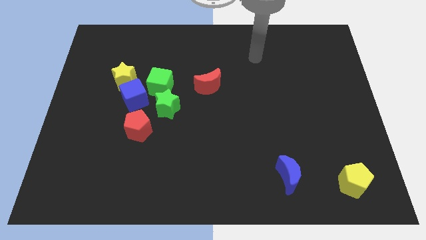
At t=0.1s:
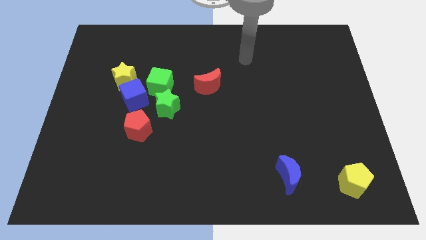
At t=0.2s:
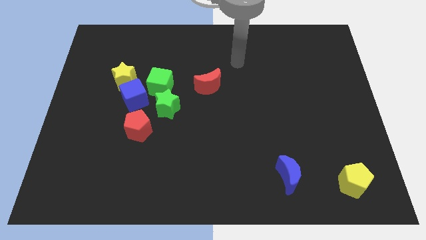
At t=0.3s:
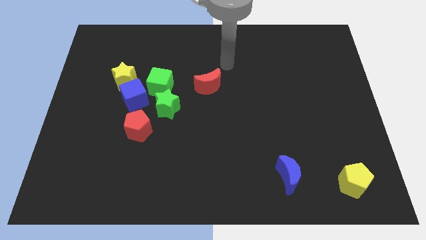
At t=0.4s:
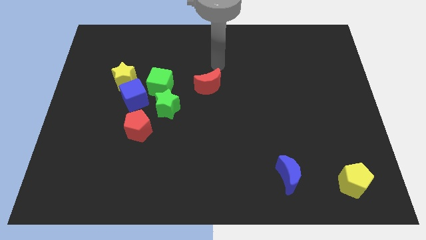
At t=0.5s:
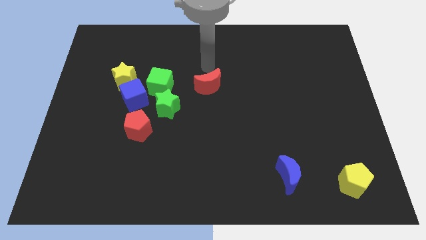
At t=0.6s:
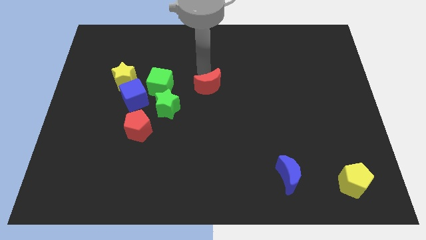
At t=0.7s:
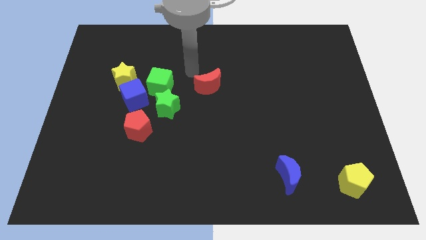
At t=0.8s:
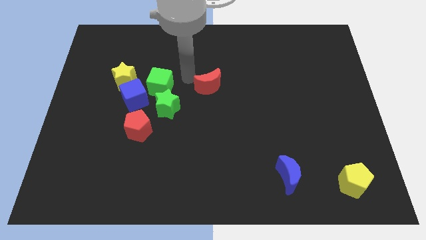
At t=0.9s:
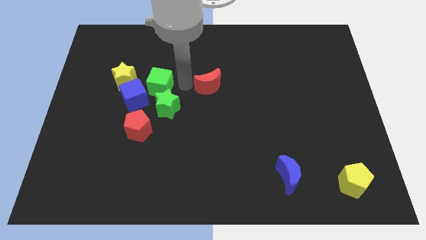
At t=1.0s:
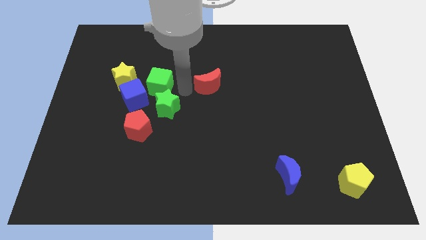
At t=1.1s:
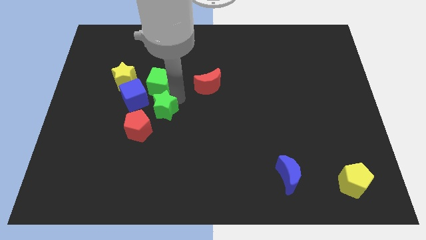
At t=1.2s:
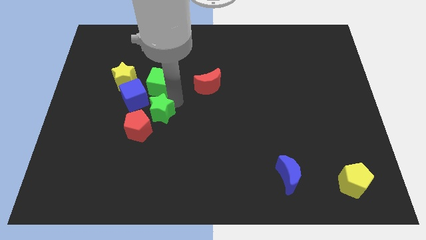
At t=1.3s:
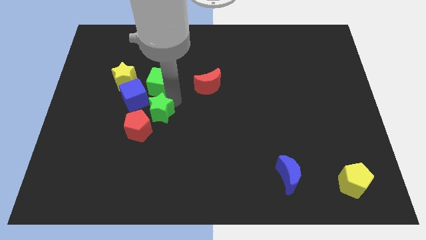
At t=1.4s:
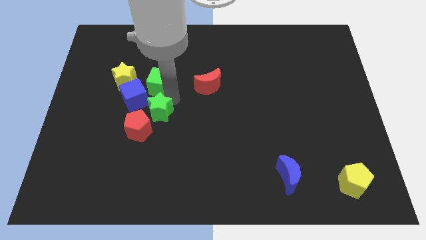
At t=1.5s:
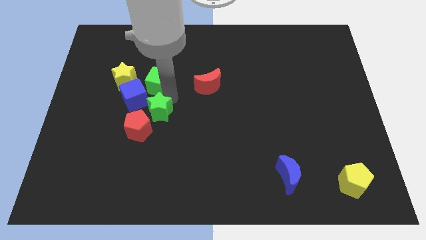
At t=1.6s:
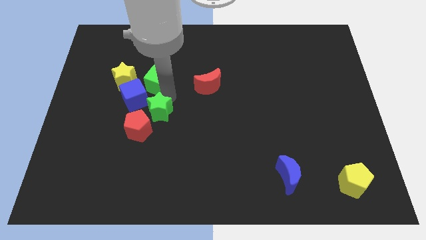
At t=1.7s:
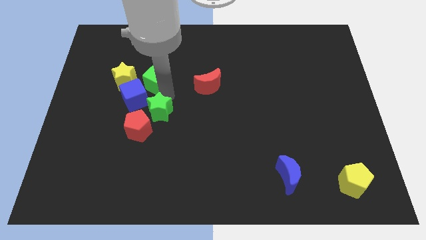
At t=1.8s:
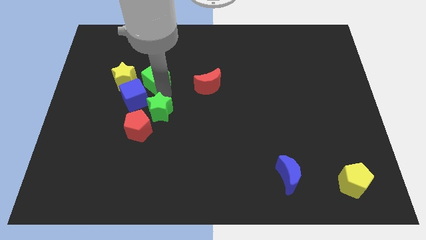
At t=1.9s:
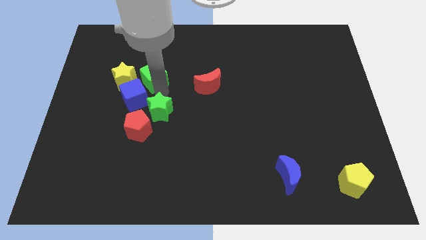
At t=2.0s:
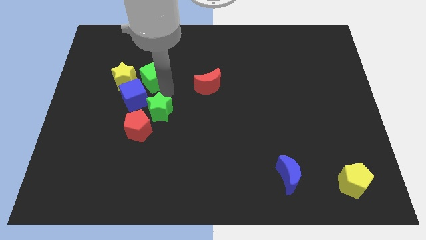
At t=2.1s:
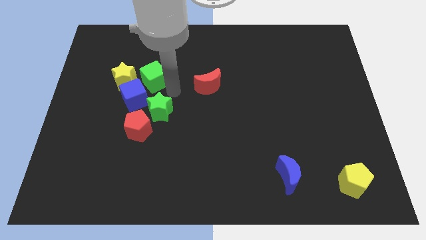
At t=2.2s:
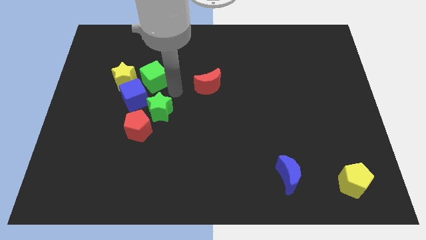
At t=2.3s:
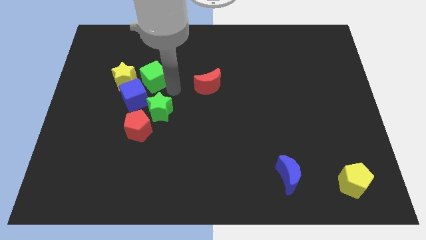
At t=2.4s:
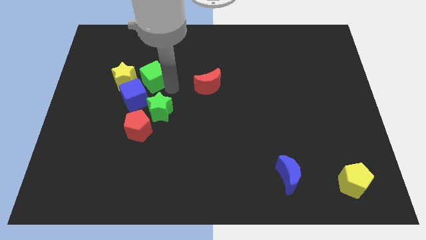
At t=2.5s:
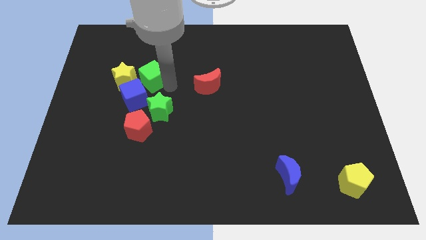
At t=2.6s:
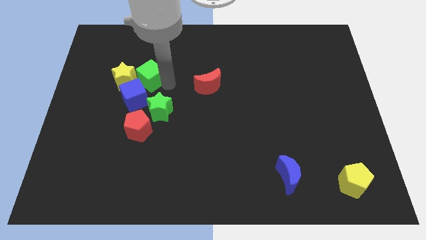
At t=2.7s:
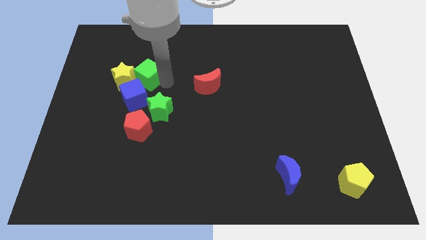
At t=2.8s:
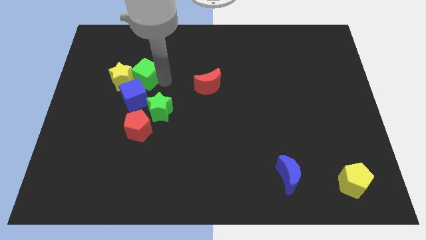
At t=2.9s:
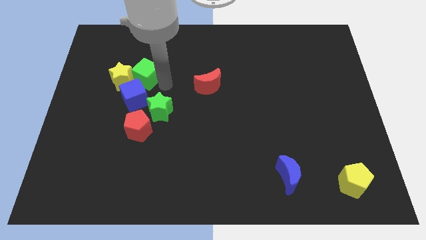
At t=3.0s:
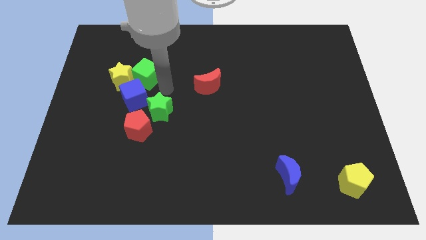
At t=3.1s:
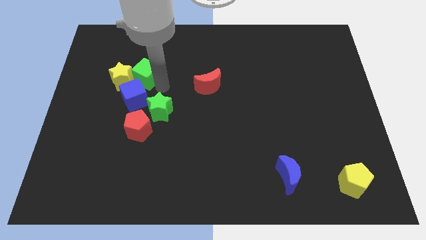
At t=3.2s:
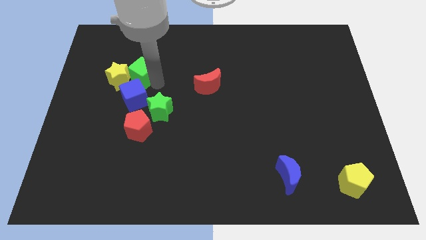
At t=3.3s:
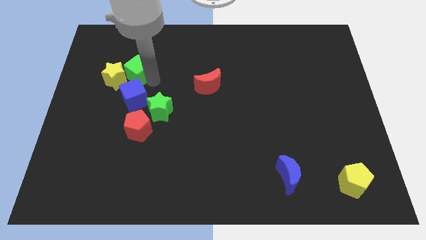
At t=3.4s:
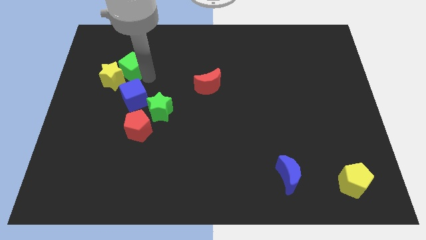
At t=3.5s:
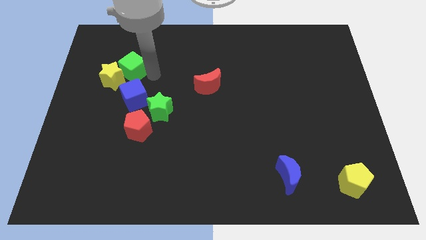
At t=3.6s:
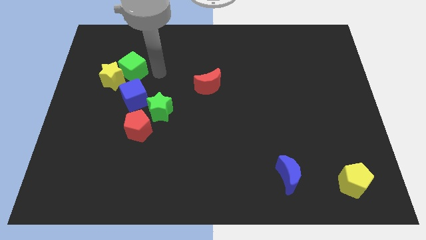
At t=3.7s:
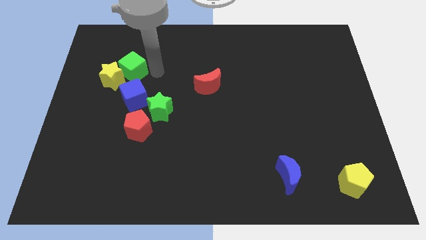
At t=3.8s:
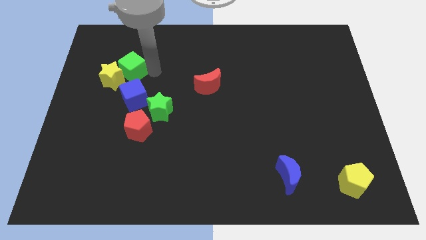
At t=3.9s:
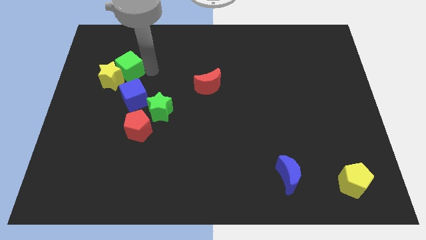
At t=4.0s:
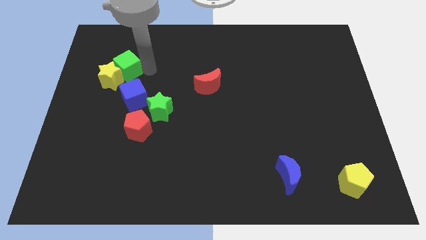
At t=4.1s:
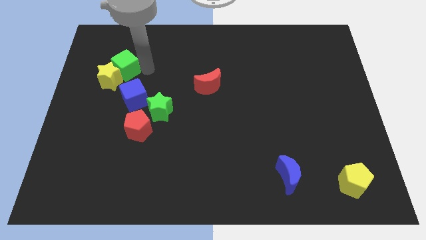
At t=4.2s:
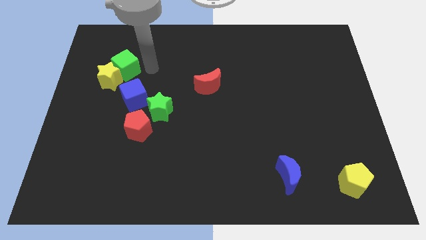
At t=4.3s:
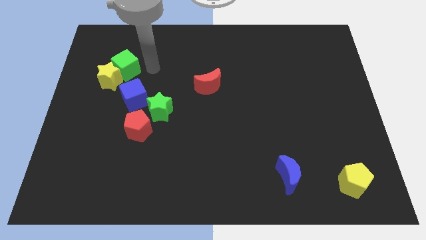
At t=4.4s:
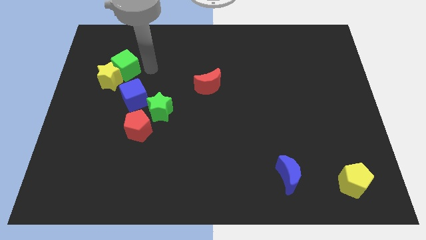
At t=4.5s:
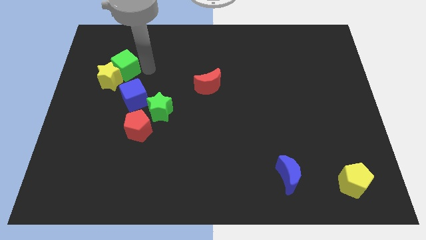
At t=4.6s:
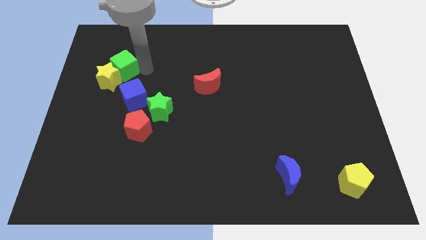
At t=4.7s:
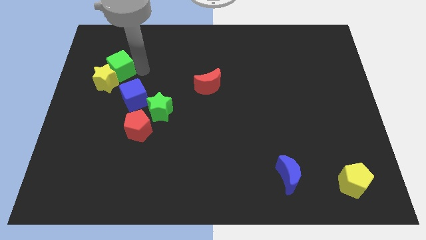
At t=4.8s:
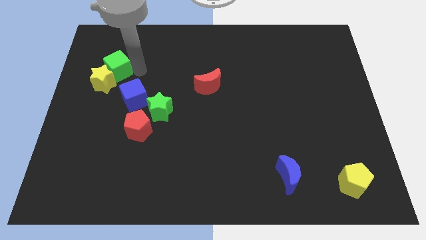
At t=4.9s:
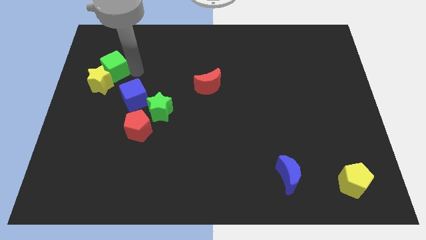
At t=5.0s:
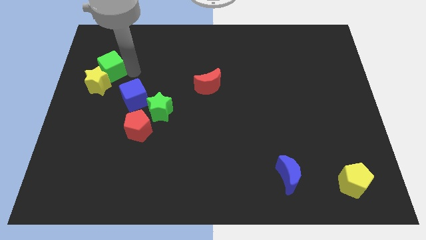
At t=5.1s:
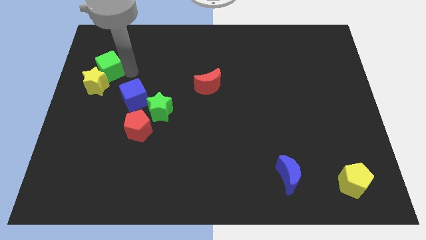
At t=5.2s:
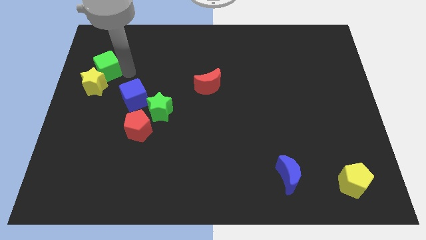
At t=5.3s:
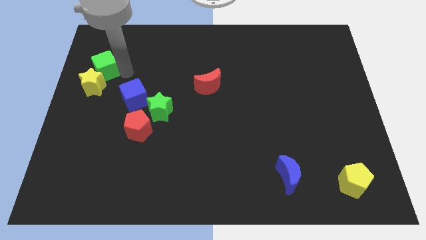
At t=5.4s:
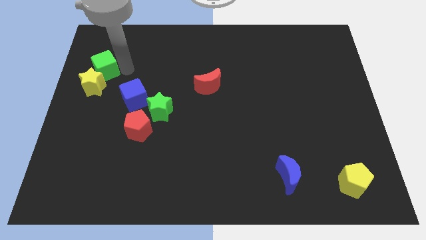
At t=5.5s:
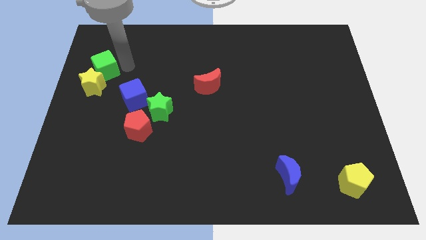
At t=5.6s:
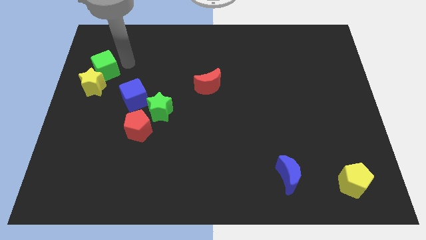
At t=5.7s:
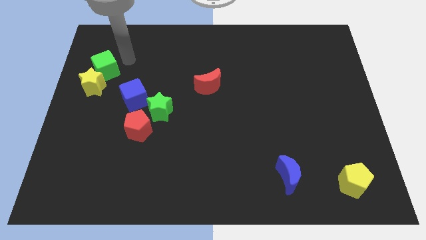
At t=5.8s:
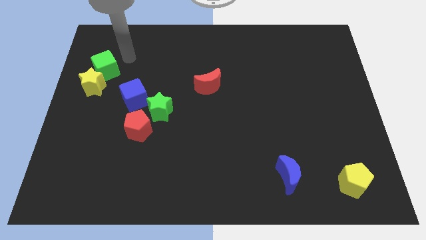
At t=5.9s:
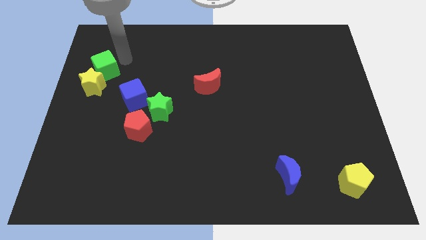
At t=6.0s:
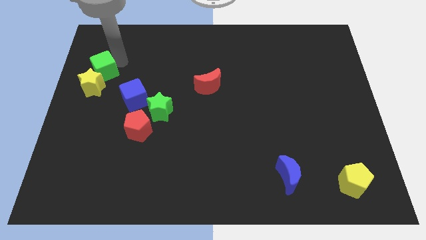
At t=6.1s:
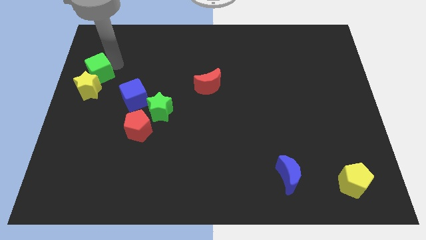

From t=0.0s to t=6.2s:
slide the green cube to the left side

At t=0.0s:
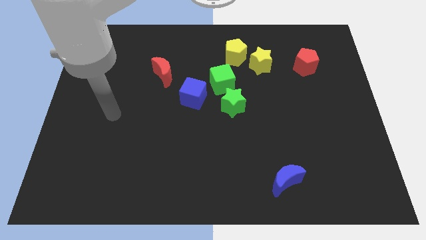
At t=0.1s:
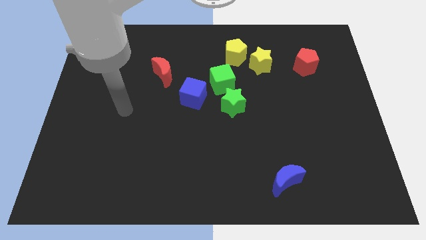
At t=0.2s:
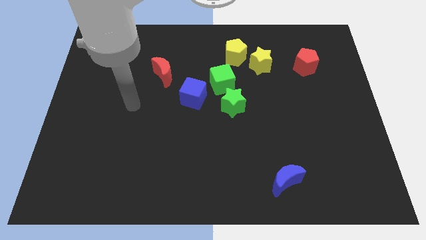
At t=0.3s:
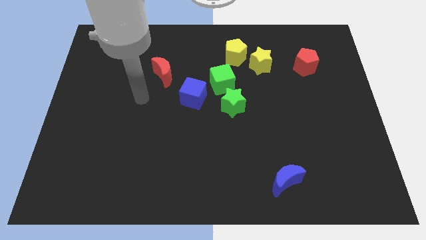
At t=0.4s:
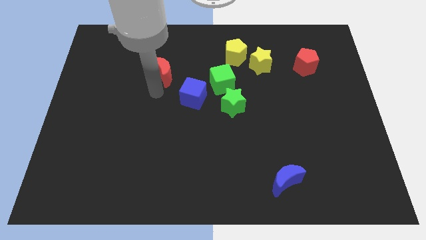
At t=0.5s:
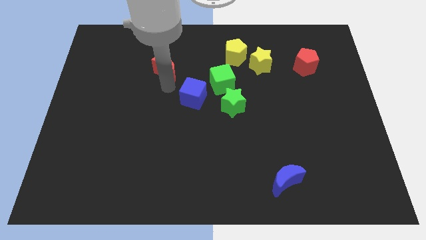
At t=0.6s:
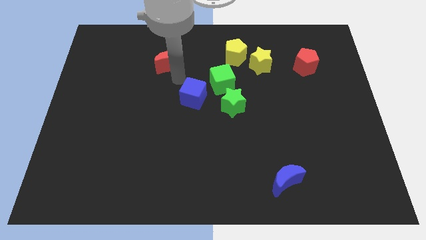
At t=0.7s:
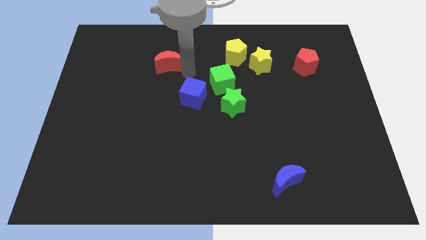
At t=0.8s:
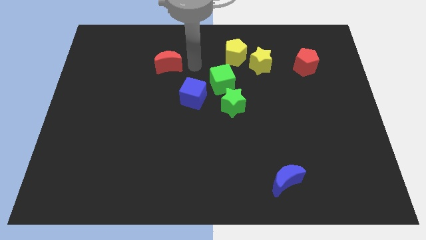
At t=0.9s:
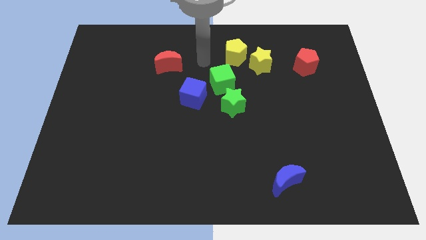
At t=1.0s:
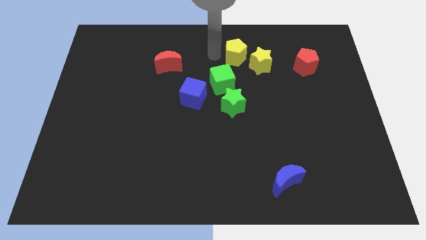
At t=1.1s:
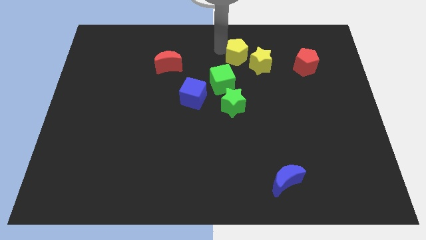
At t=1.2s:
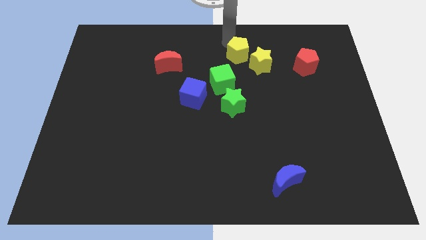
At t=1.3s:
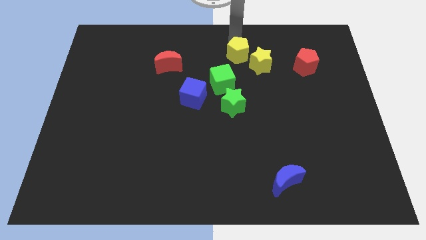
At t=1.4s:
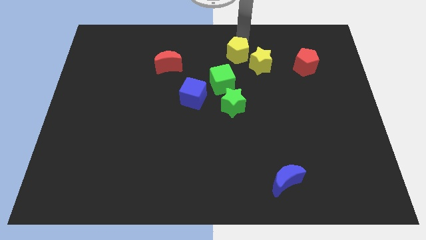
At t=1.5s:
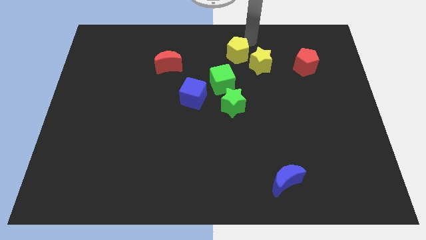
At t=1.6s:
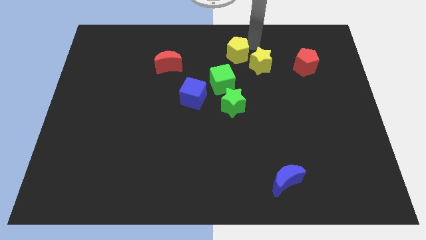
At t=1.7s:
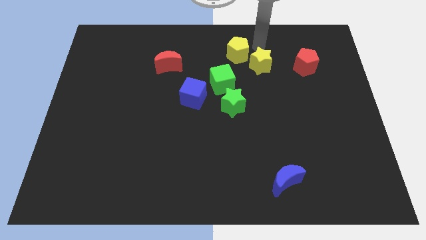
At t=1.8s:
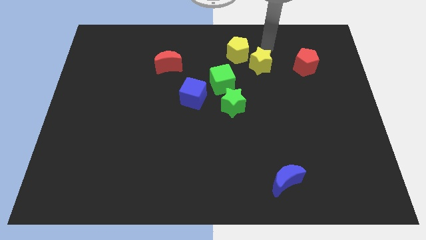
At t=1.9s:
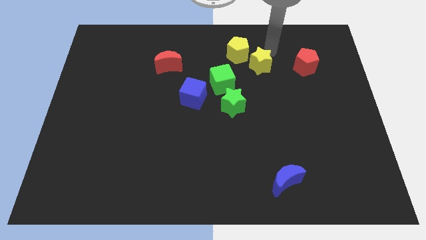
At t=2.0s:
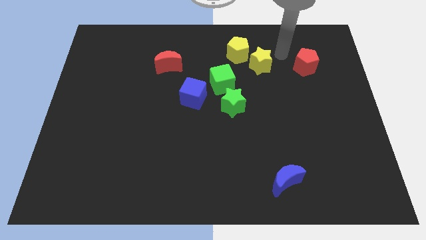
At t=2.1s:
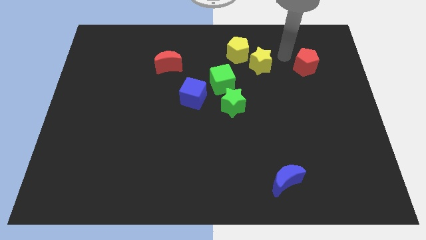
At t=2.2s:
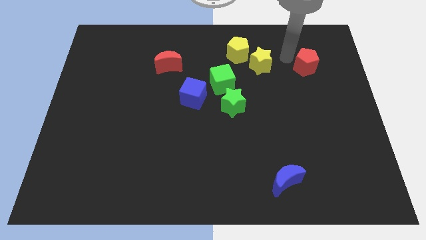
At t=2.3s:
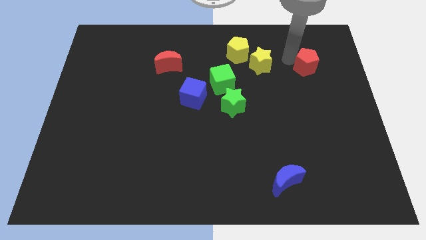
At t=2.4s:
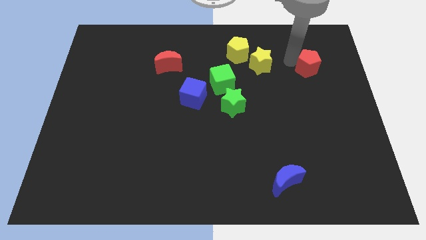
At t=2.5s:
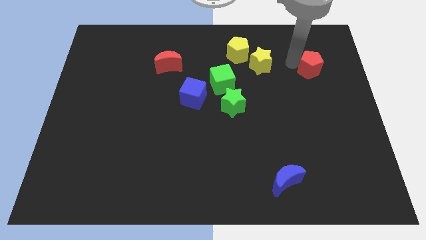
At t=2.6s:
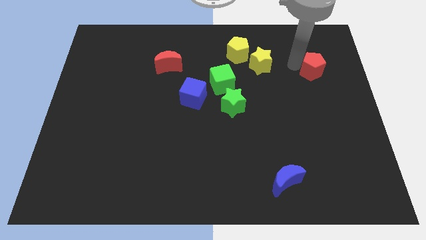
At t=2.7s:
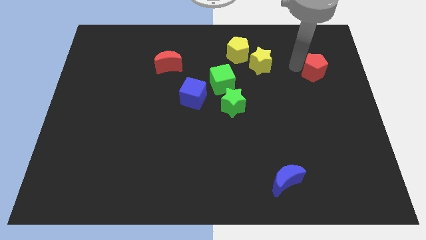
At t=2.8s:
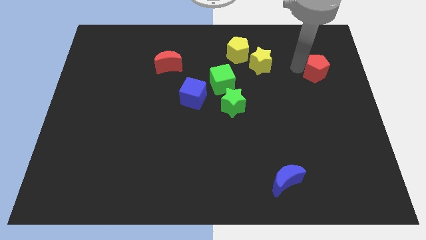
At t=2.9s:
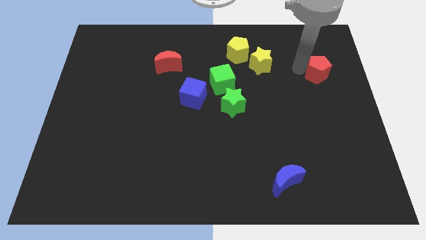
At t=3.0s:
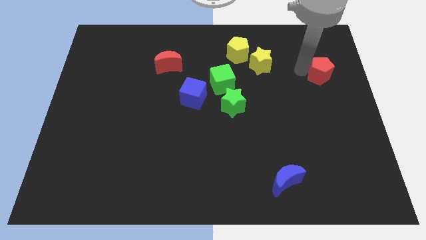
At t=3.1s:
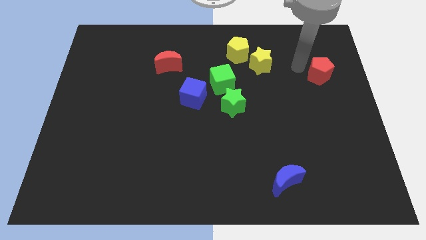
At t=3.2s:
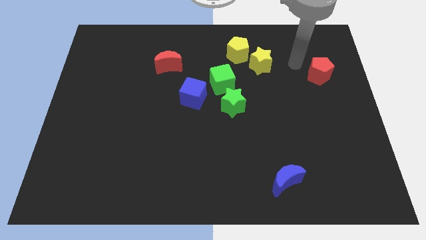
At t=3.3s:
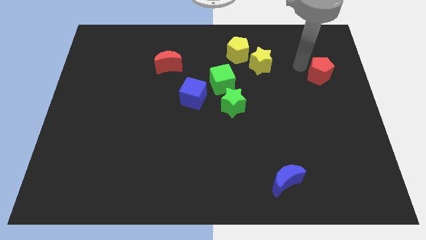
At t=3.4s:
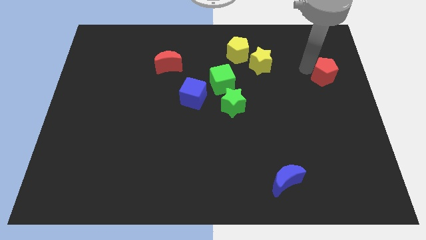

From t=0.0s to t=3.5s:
slide the red pentagon to the right side of the board
